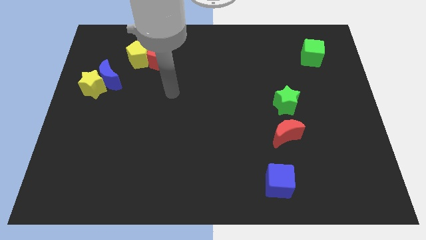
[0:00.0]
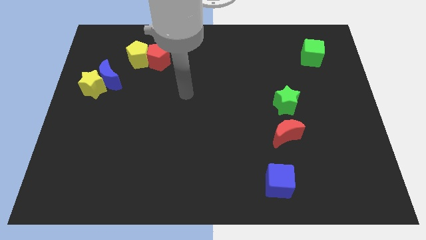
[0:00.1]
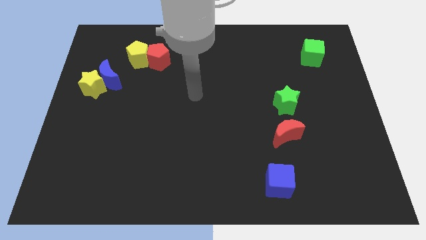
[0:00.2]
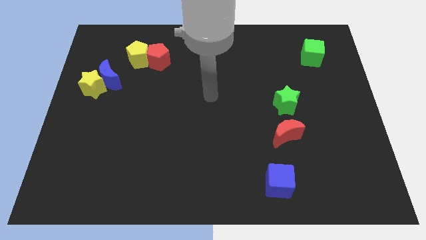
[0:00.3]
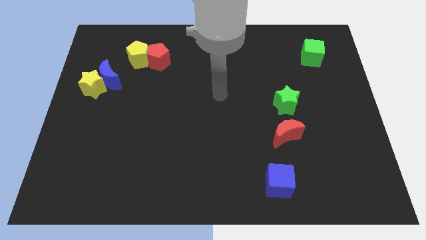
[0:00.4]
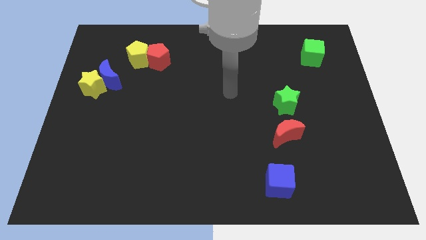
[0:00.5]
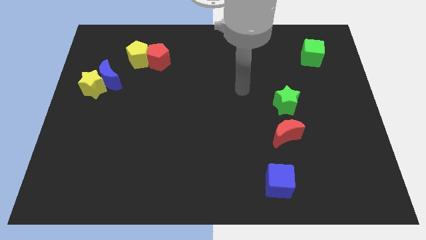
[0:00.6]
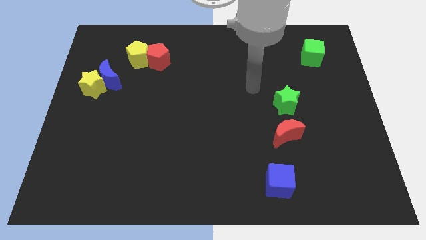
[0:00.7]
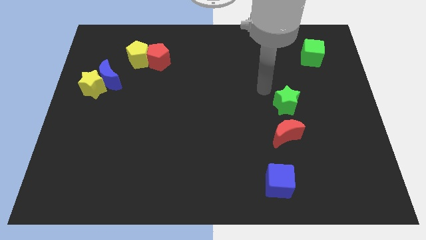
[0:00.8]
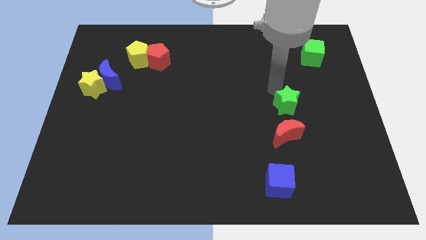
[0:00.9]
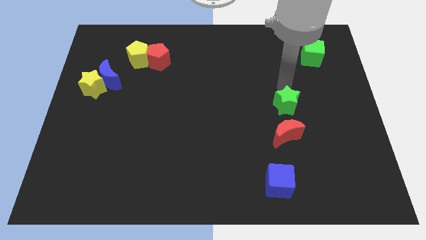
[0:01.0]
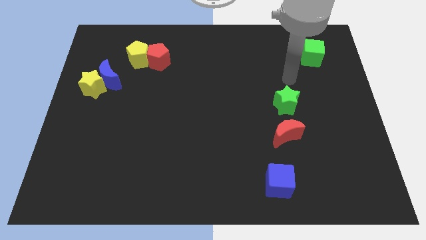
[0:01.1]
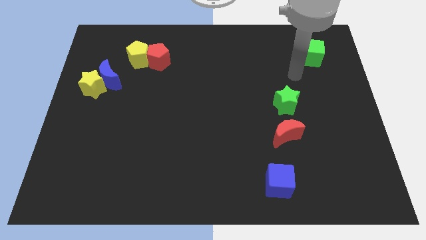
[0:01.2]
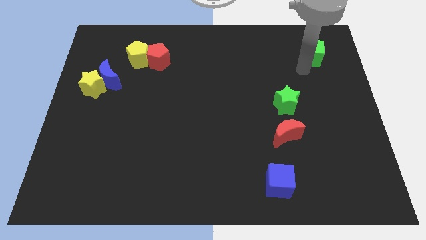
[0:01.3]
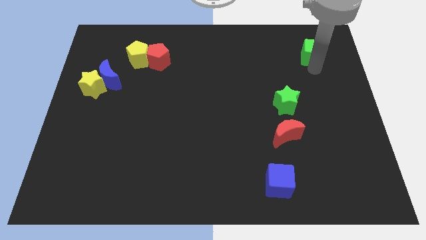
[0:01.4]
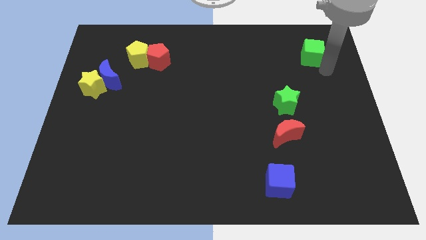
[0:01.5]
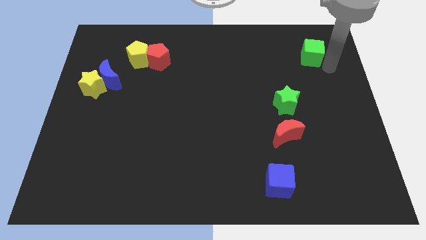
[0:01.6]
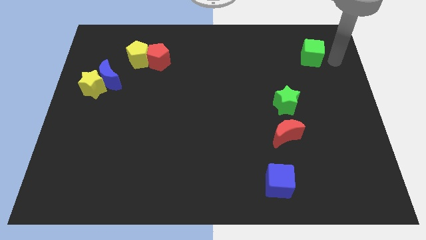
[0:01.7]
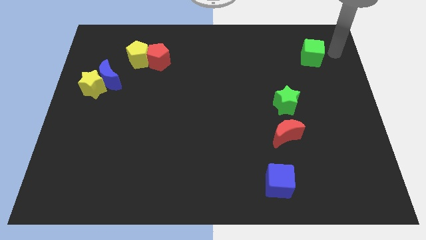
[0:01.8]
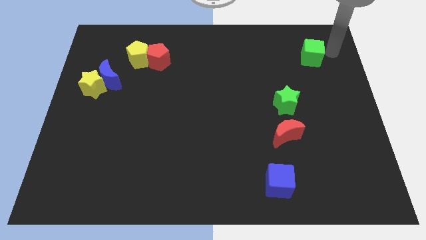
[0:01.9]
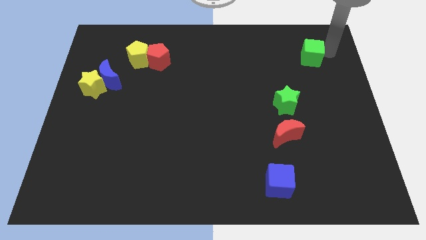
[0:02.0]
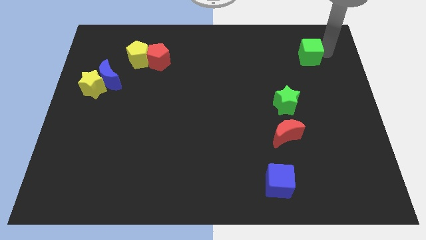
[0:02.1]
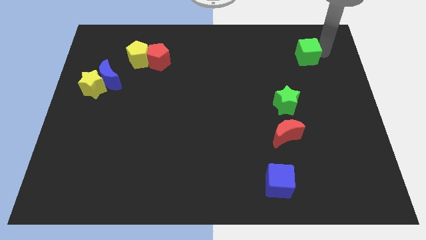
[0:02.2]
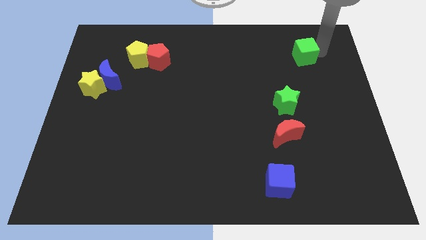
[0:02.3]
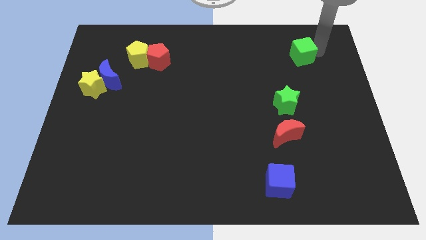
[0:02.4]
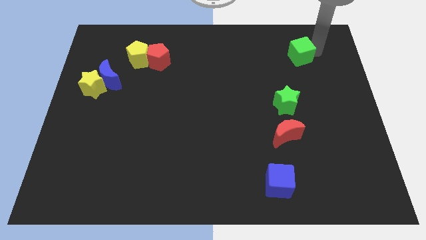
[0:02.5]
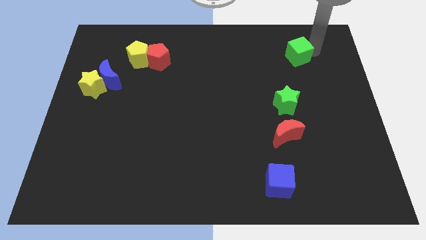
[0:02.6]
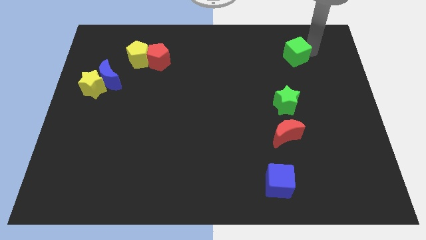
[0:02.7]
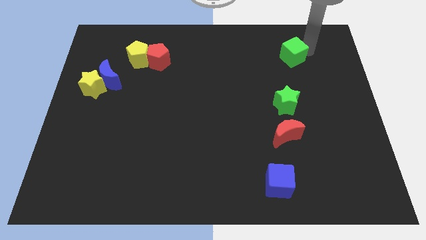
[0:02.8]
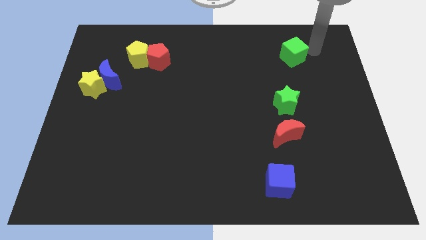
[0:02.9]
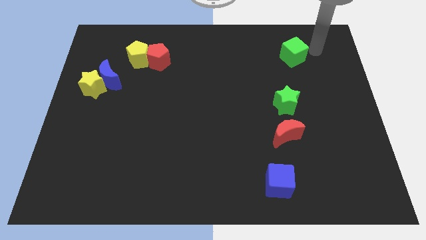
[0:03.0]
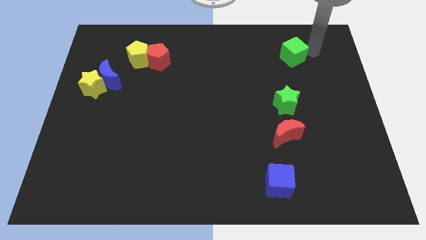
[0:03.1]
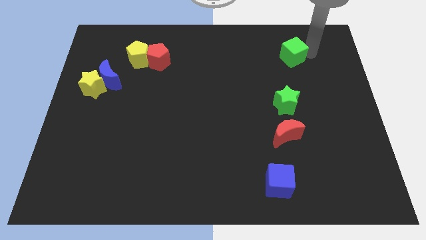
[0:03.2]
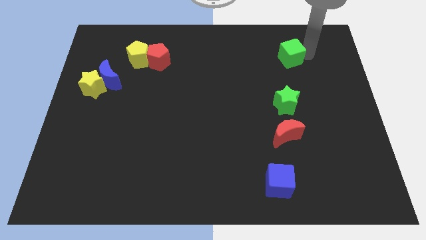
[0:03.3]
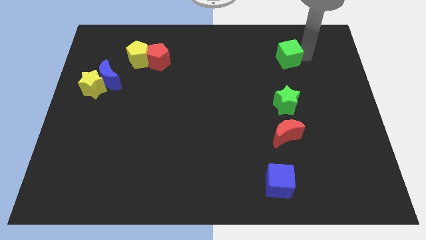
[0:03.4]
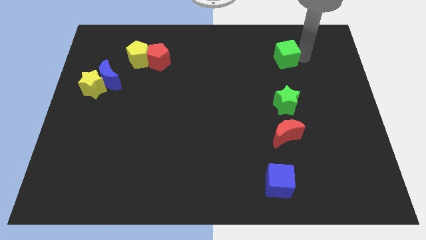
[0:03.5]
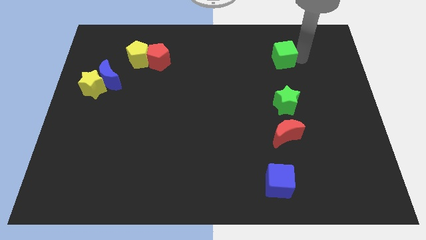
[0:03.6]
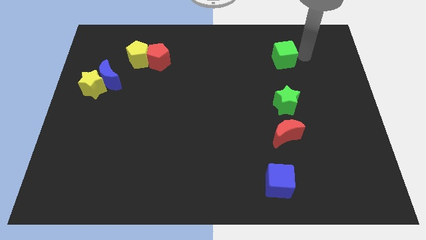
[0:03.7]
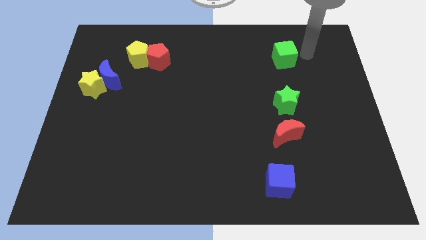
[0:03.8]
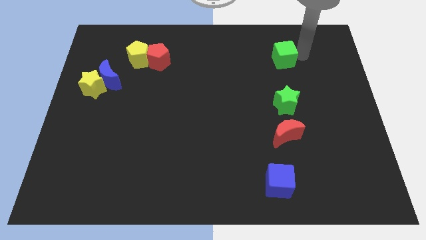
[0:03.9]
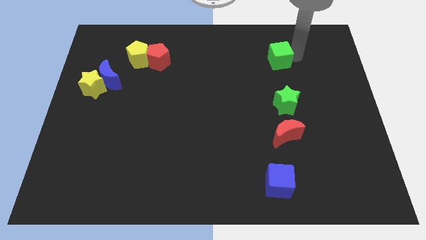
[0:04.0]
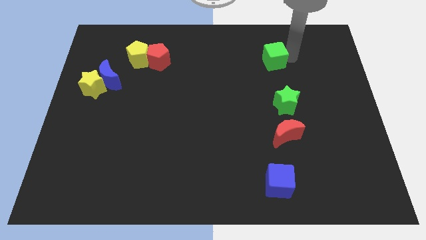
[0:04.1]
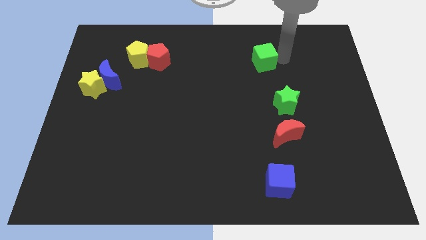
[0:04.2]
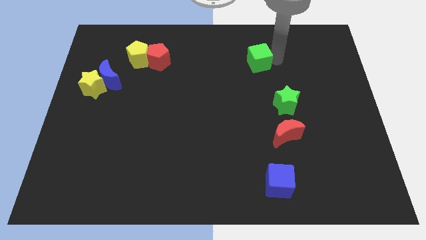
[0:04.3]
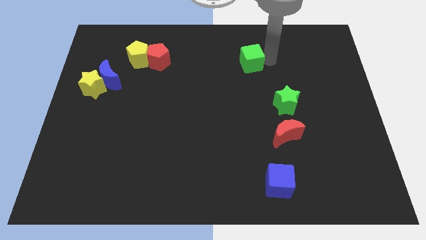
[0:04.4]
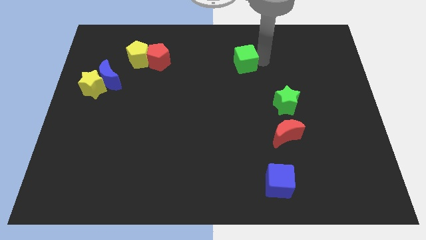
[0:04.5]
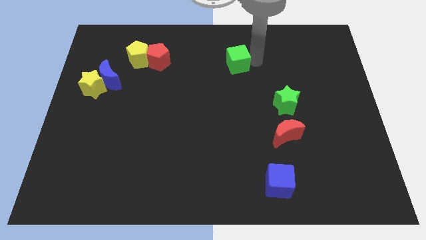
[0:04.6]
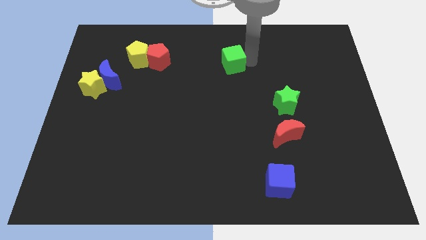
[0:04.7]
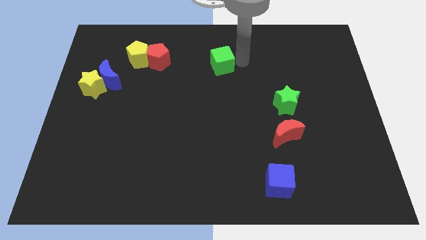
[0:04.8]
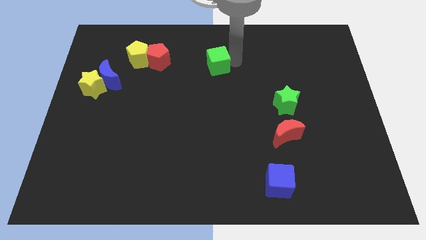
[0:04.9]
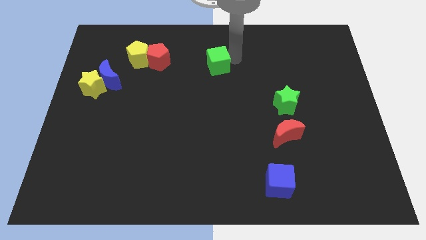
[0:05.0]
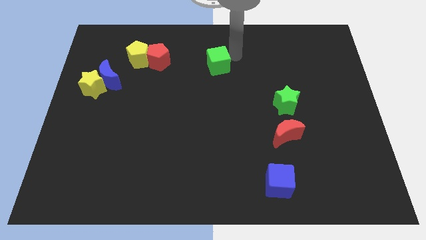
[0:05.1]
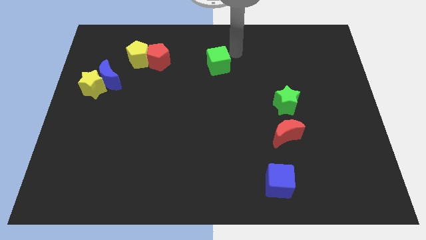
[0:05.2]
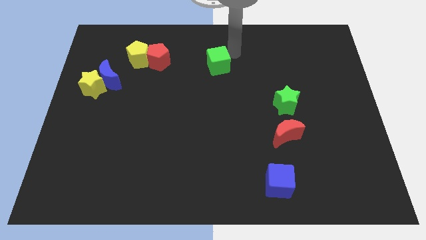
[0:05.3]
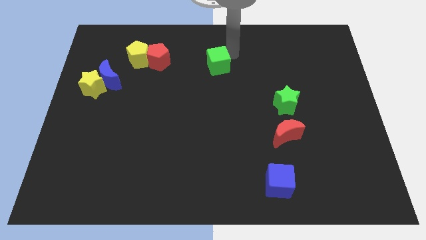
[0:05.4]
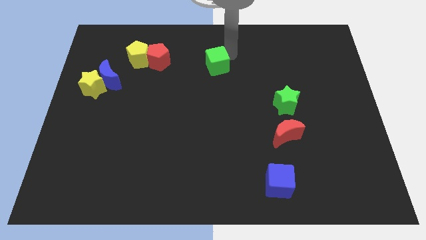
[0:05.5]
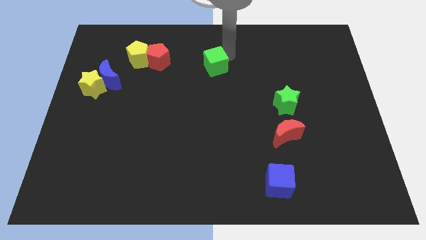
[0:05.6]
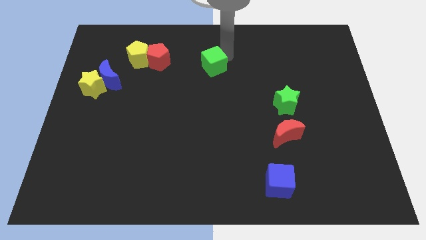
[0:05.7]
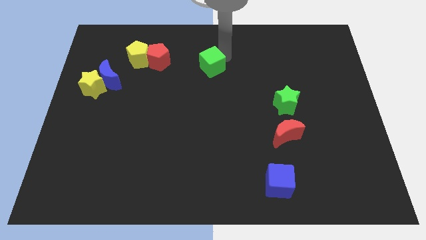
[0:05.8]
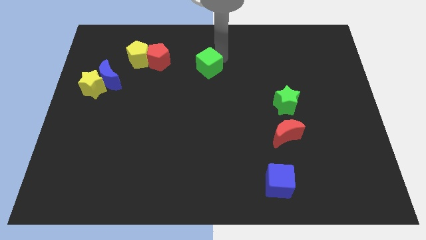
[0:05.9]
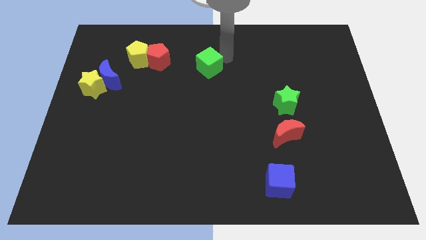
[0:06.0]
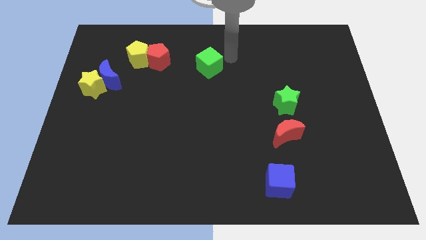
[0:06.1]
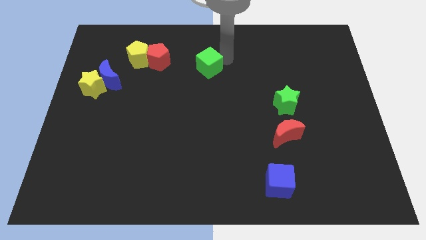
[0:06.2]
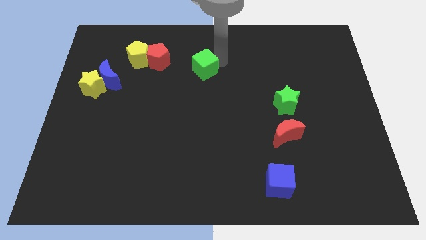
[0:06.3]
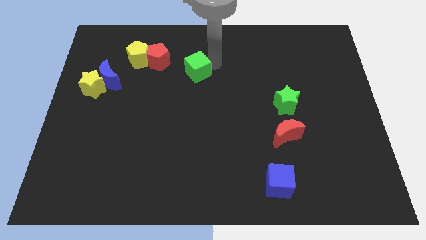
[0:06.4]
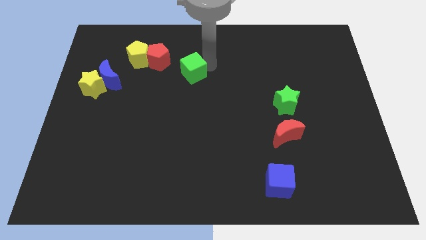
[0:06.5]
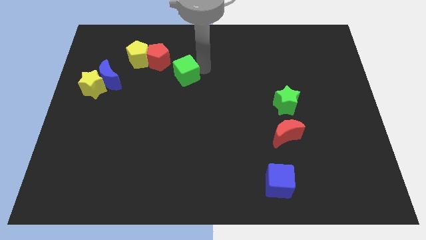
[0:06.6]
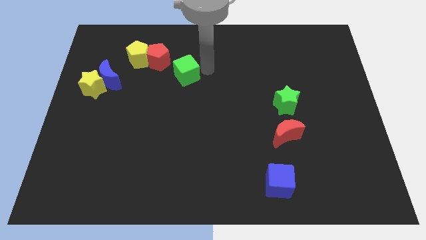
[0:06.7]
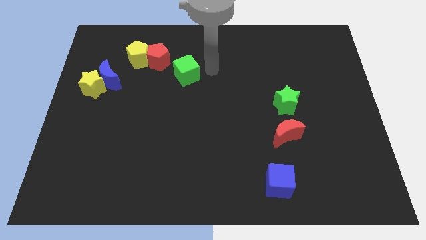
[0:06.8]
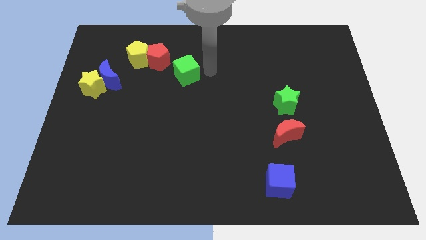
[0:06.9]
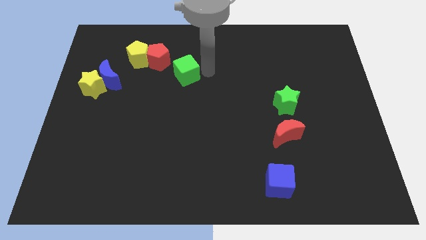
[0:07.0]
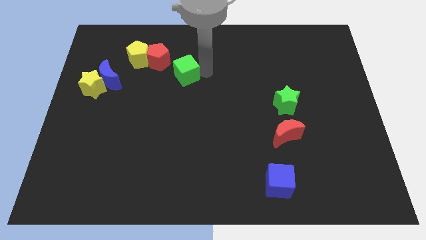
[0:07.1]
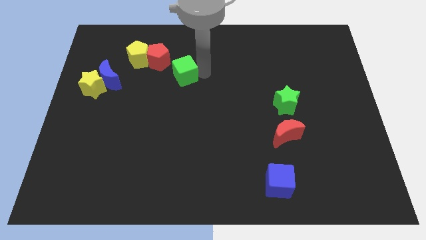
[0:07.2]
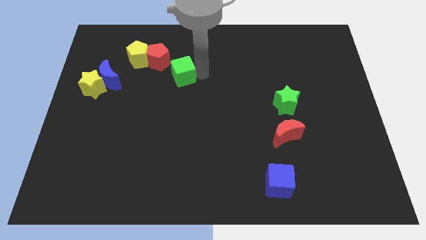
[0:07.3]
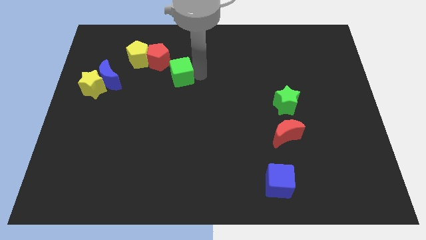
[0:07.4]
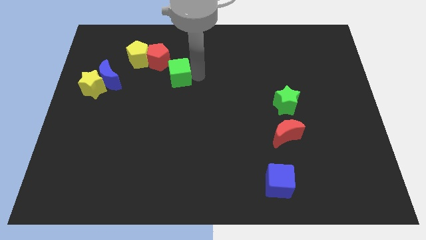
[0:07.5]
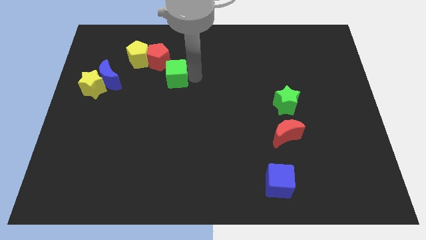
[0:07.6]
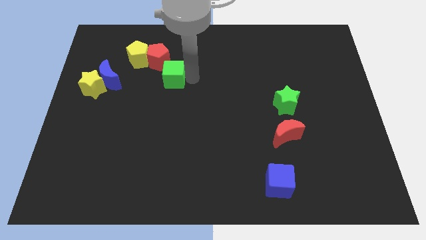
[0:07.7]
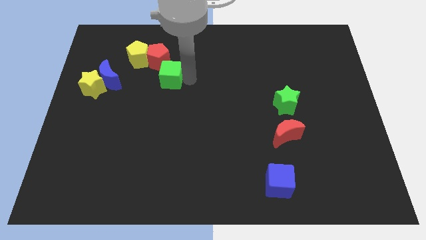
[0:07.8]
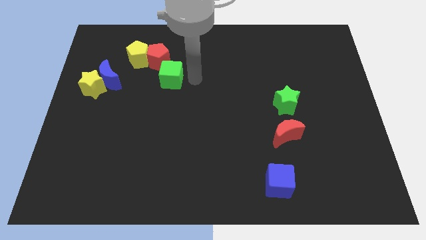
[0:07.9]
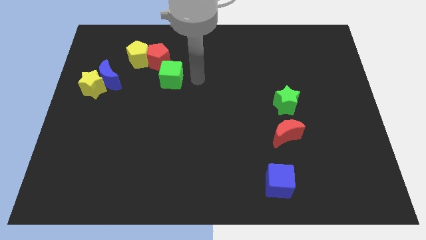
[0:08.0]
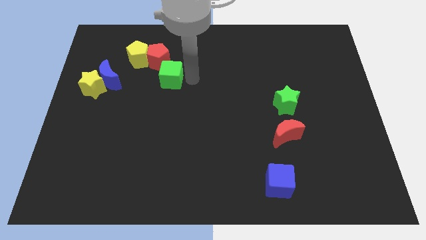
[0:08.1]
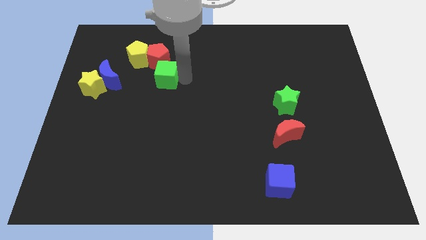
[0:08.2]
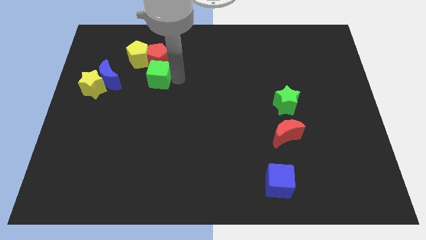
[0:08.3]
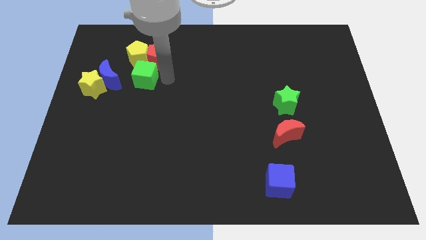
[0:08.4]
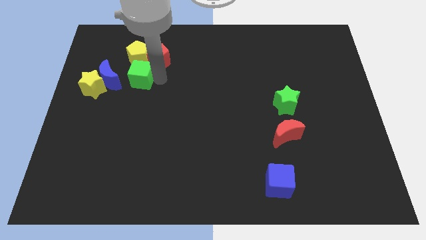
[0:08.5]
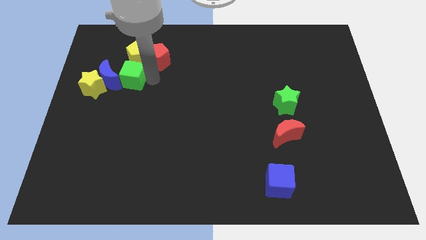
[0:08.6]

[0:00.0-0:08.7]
push the green cube diagonally up and to the right of the yellow star
